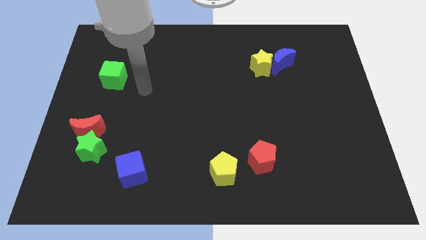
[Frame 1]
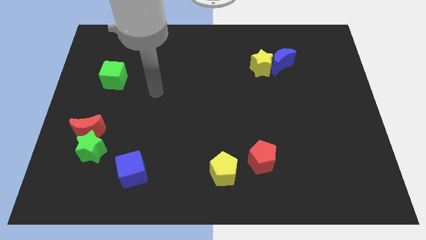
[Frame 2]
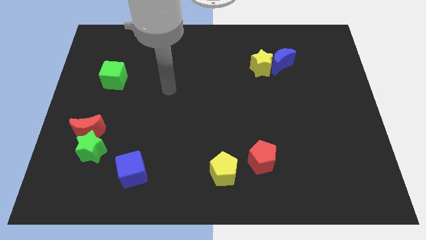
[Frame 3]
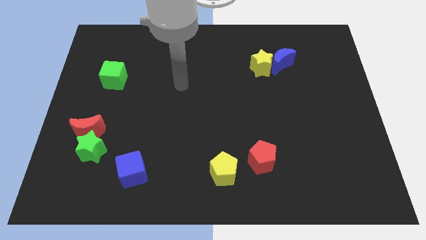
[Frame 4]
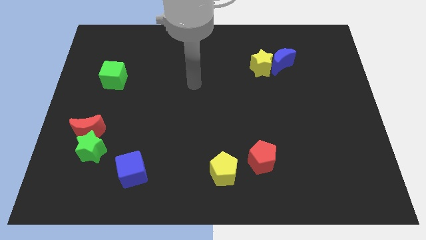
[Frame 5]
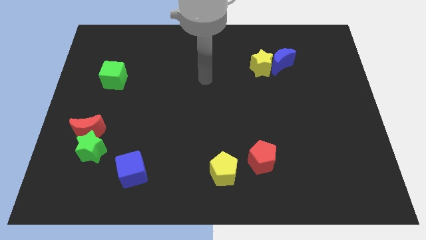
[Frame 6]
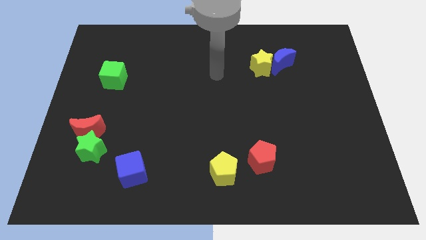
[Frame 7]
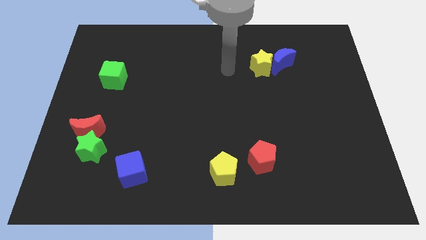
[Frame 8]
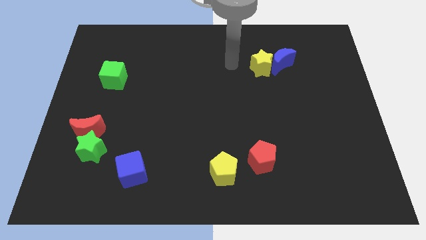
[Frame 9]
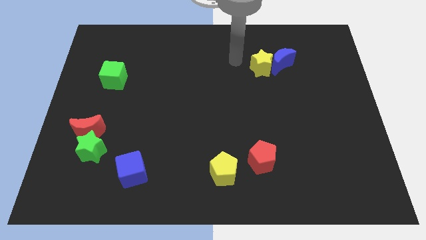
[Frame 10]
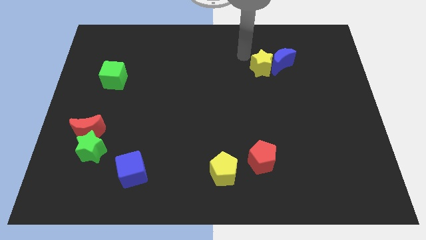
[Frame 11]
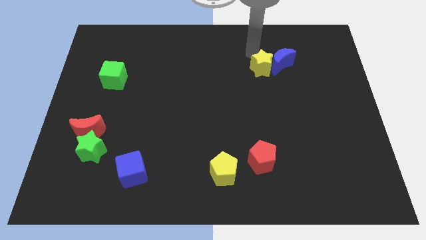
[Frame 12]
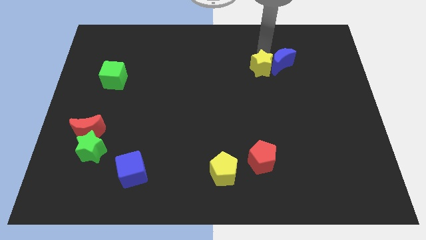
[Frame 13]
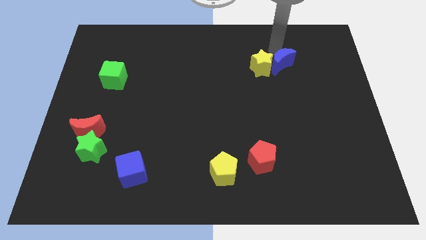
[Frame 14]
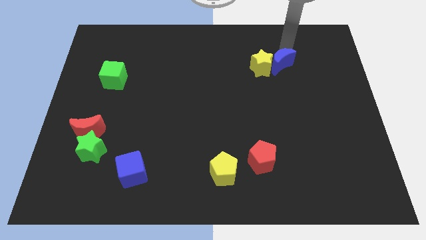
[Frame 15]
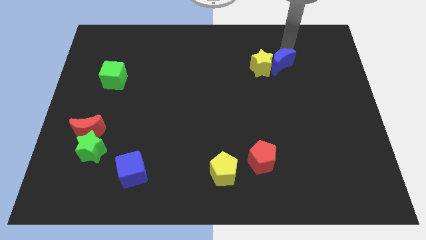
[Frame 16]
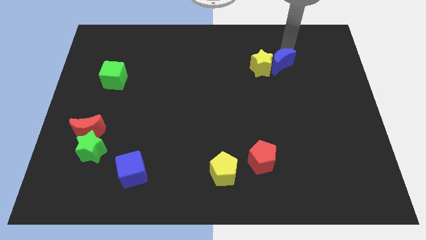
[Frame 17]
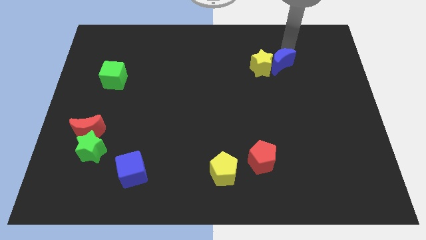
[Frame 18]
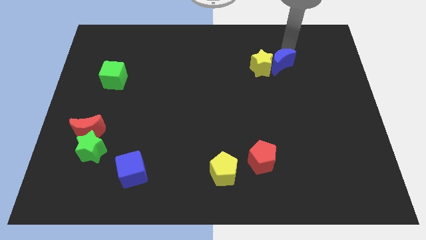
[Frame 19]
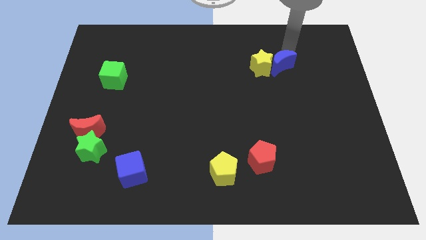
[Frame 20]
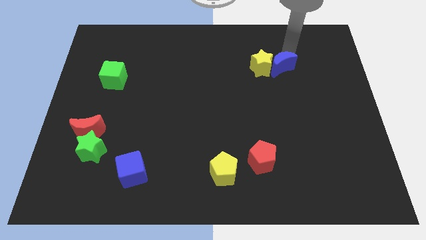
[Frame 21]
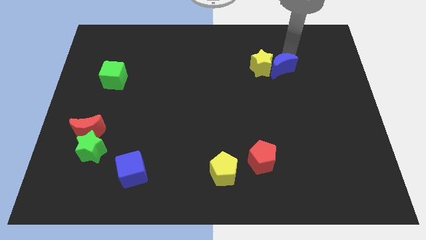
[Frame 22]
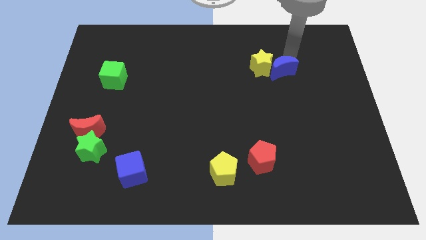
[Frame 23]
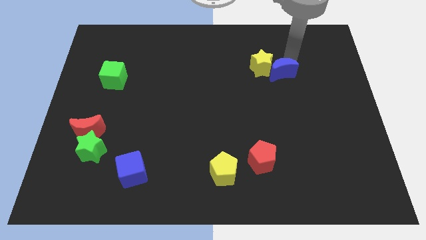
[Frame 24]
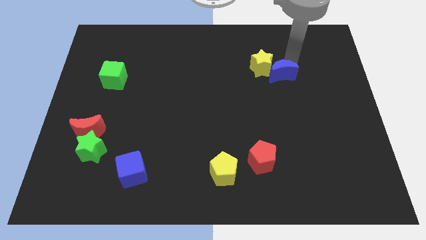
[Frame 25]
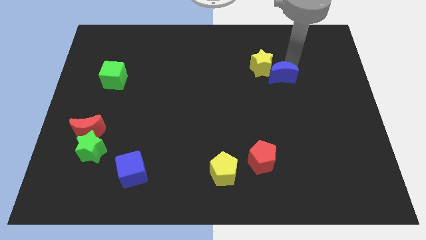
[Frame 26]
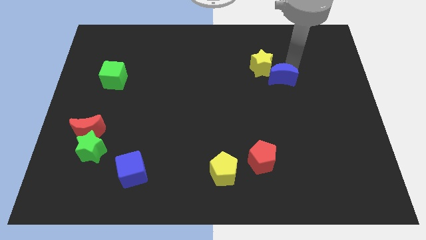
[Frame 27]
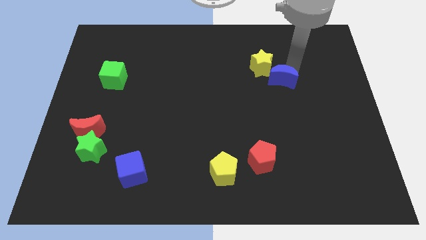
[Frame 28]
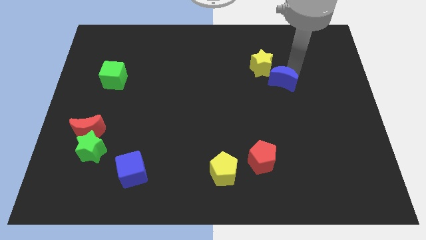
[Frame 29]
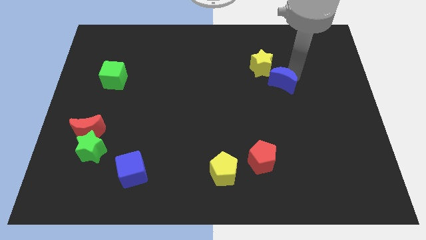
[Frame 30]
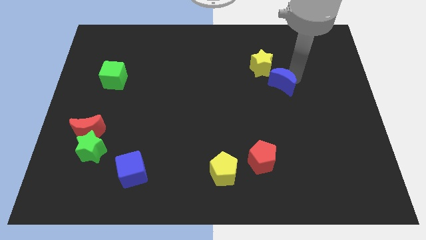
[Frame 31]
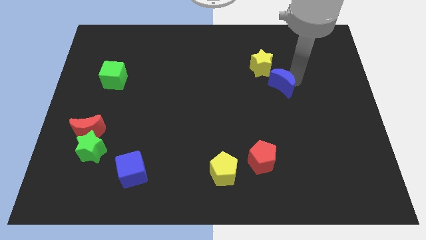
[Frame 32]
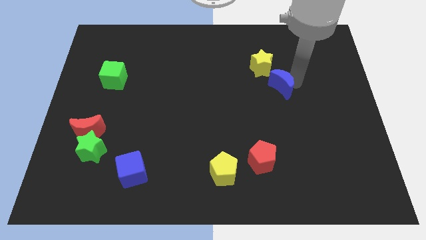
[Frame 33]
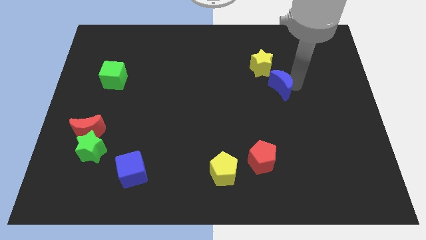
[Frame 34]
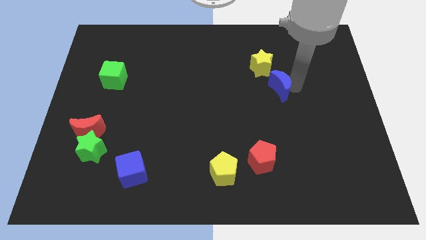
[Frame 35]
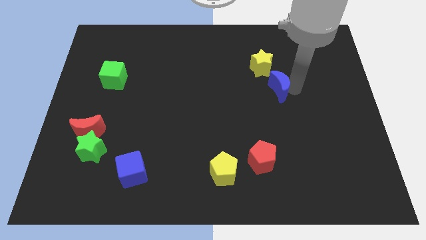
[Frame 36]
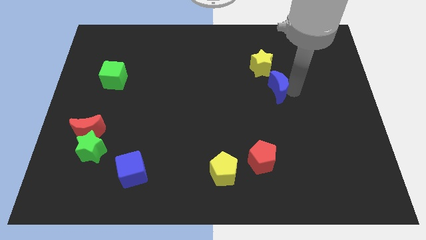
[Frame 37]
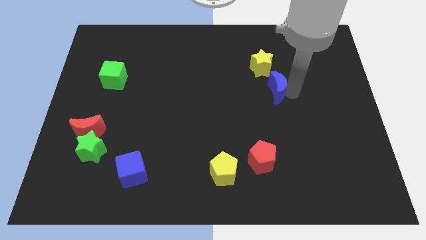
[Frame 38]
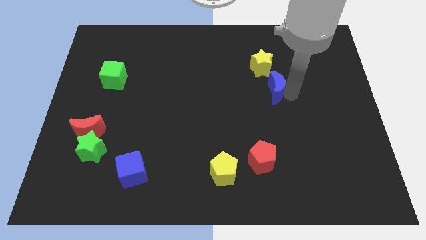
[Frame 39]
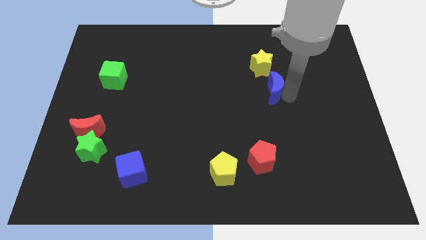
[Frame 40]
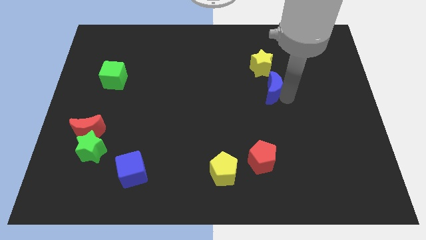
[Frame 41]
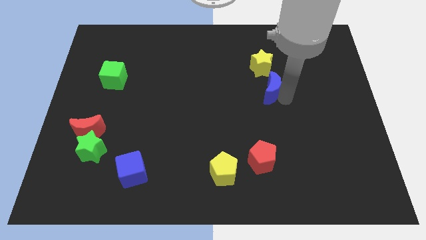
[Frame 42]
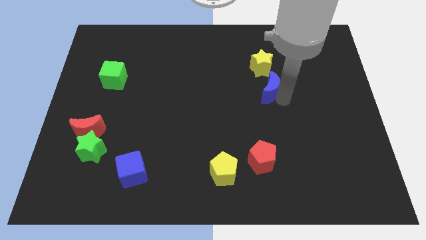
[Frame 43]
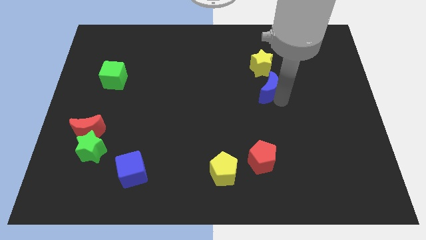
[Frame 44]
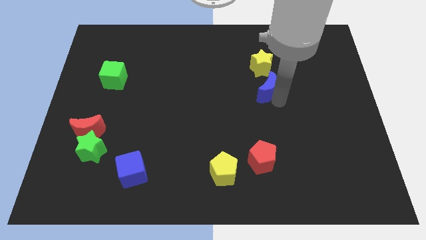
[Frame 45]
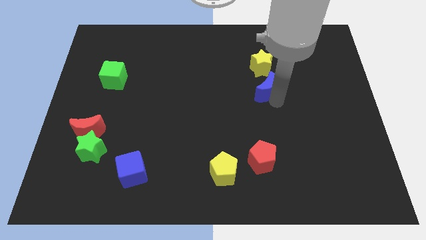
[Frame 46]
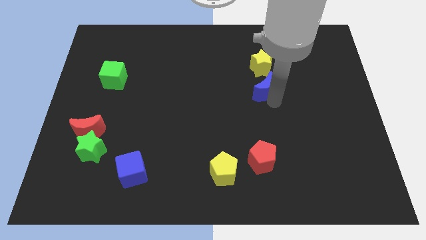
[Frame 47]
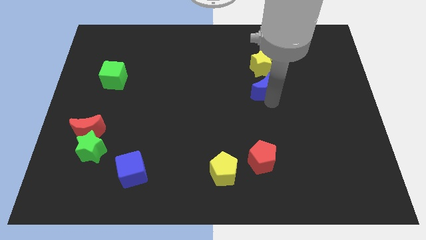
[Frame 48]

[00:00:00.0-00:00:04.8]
move the blue moon to the center of the board

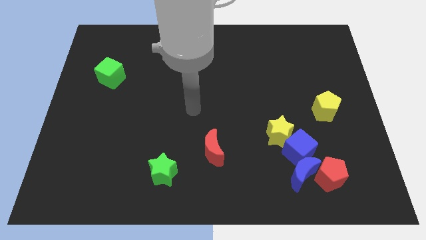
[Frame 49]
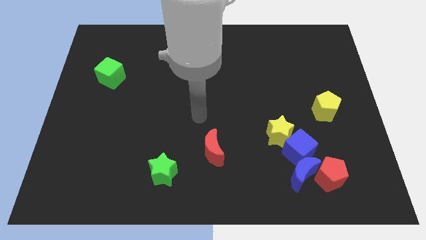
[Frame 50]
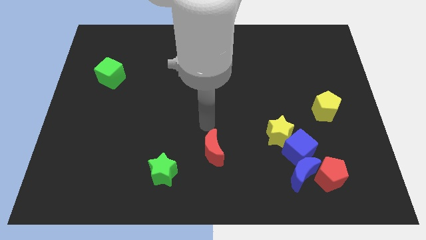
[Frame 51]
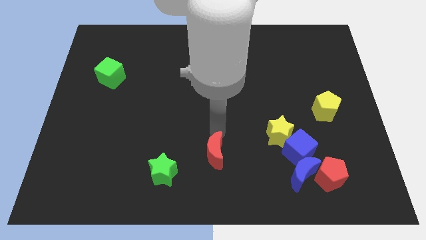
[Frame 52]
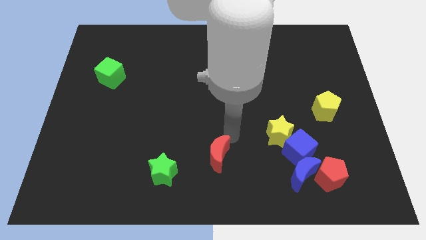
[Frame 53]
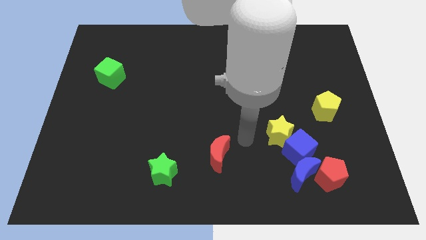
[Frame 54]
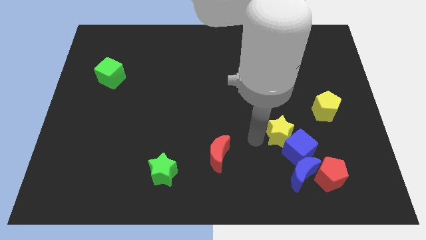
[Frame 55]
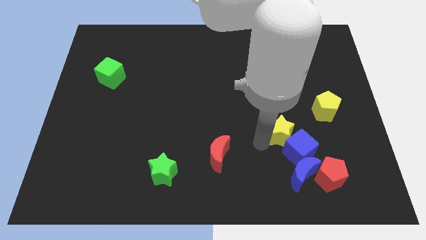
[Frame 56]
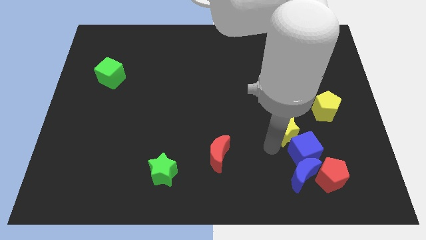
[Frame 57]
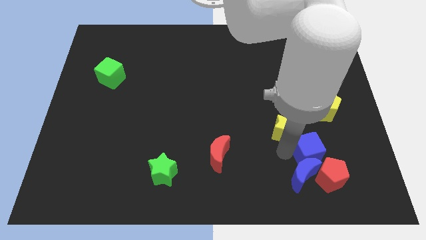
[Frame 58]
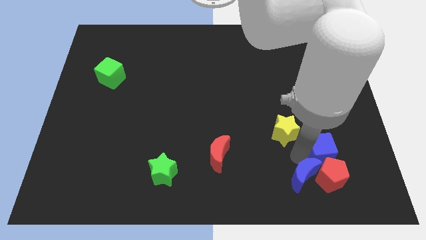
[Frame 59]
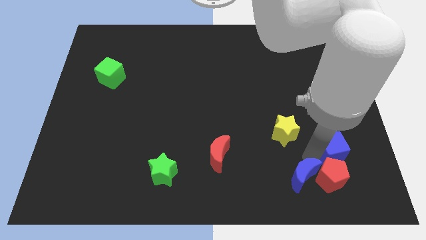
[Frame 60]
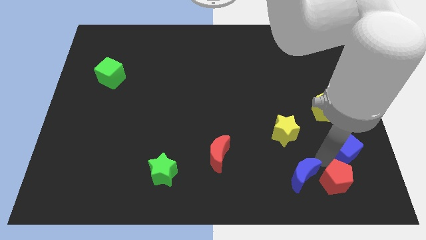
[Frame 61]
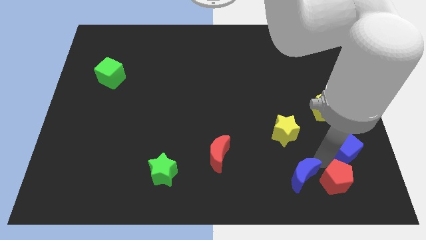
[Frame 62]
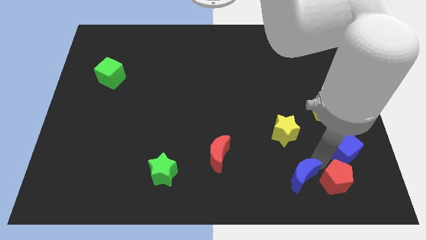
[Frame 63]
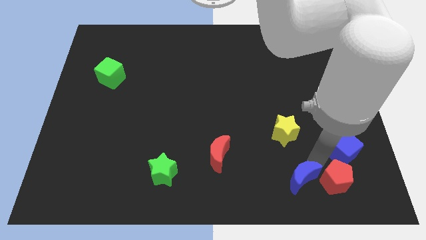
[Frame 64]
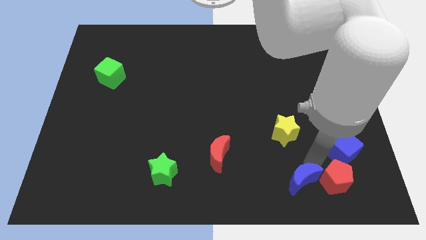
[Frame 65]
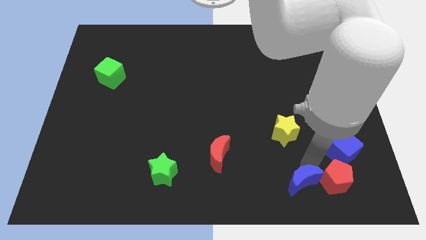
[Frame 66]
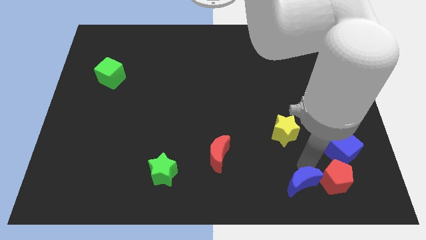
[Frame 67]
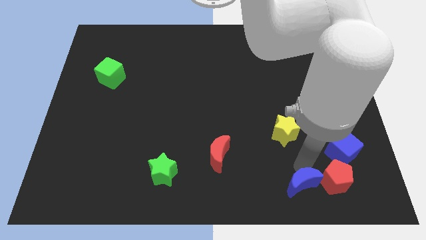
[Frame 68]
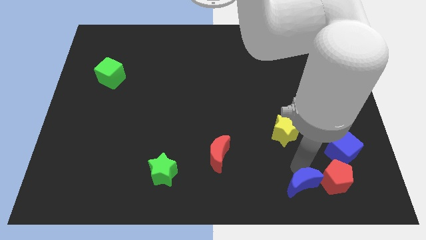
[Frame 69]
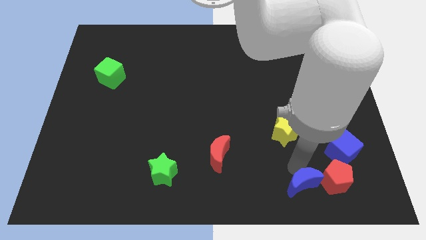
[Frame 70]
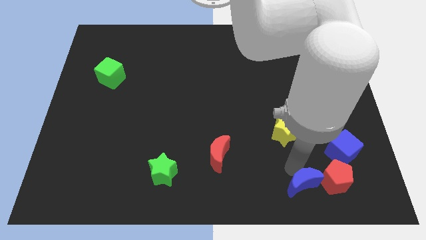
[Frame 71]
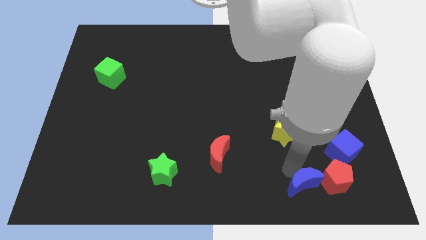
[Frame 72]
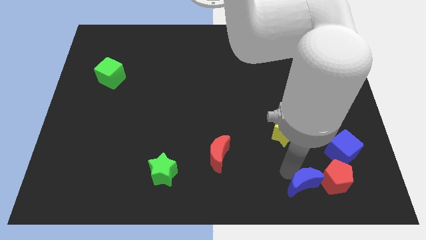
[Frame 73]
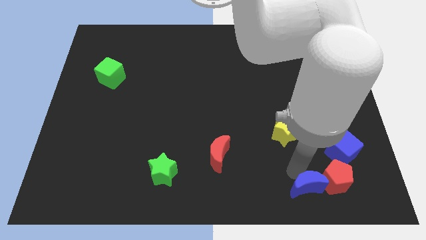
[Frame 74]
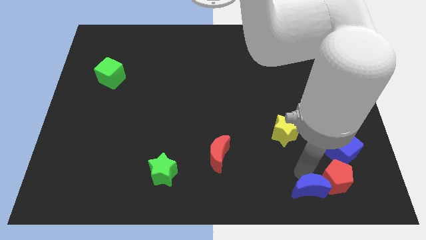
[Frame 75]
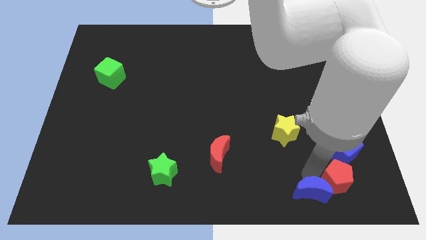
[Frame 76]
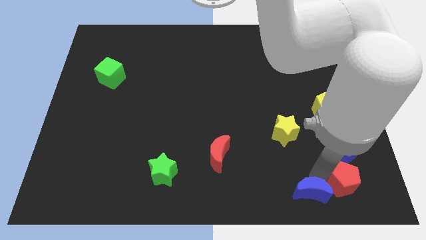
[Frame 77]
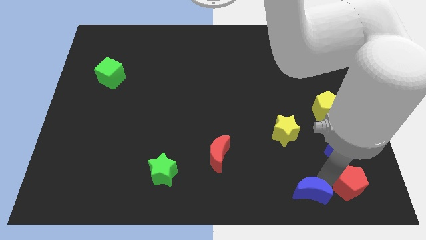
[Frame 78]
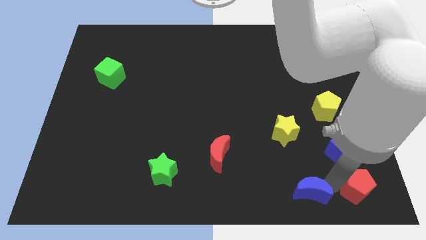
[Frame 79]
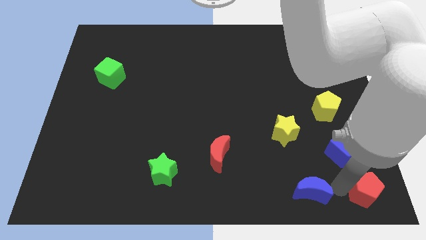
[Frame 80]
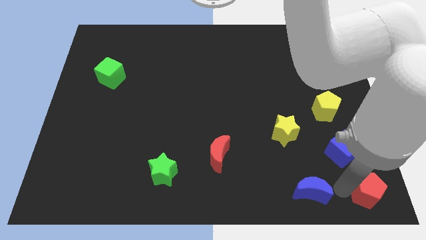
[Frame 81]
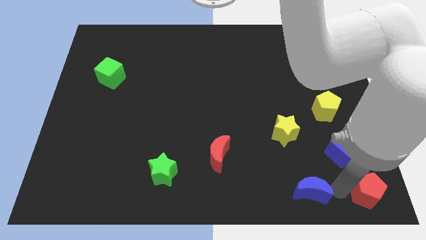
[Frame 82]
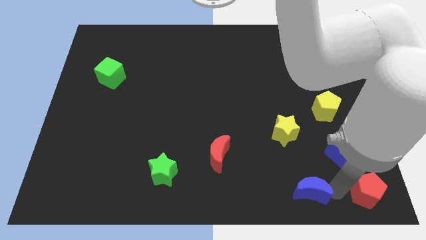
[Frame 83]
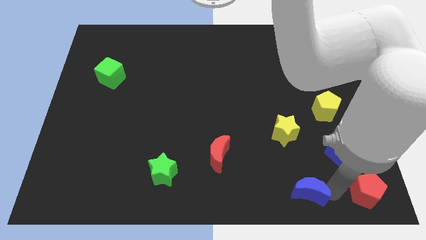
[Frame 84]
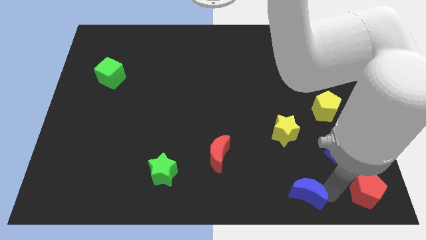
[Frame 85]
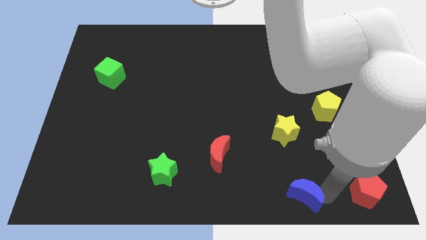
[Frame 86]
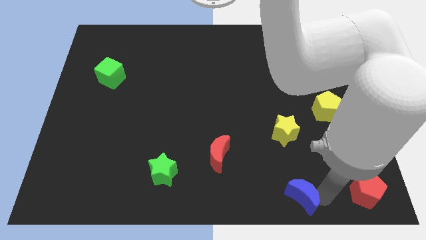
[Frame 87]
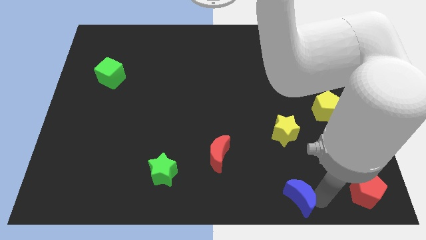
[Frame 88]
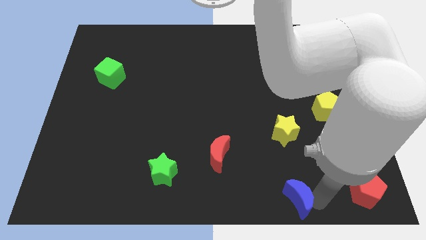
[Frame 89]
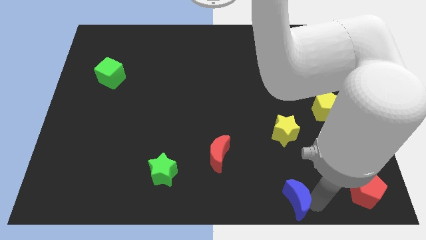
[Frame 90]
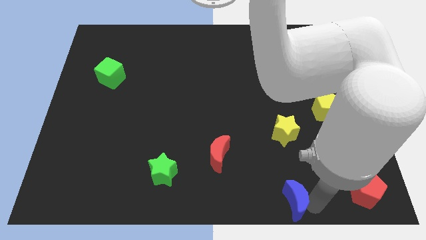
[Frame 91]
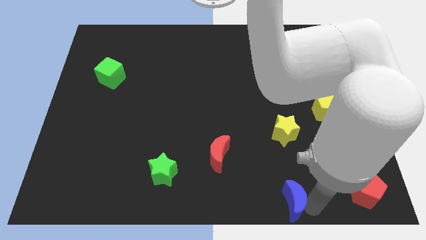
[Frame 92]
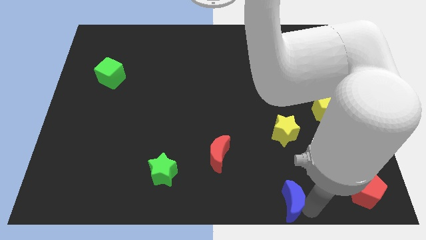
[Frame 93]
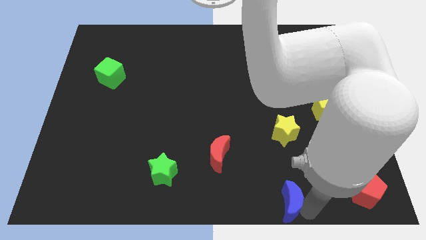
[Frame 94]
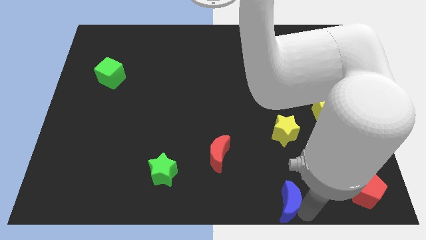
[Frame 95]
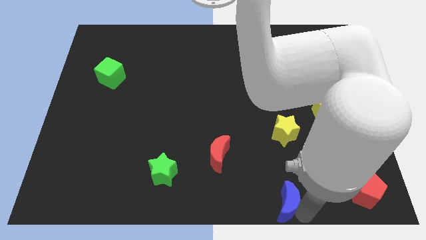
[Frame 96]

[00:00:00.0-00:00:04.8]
slide the blue moon to the bottom side
